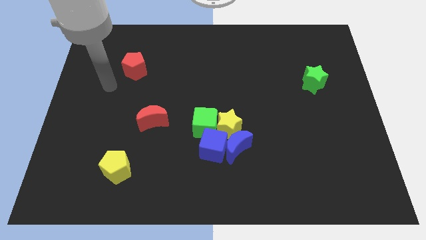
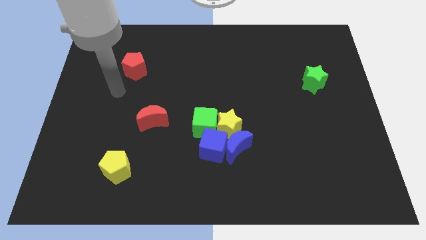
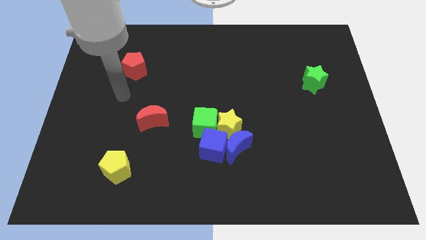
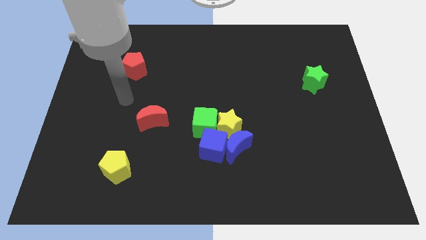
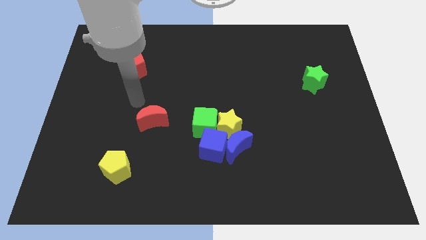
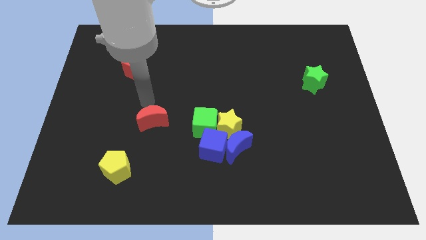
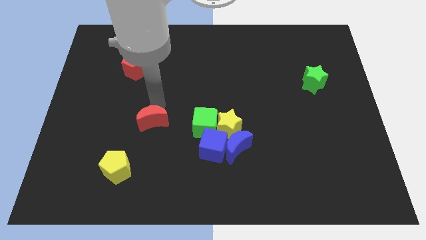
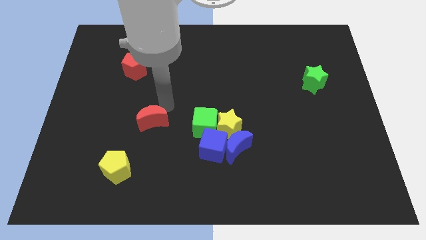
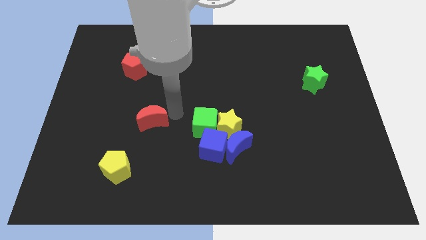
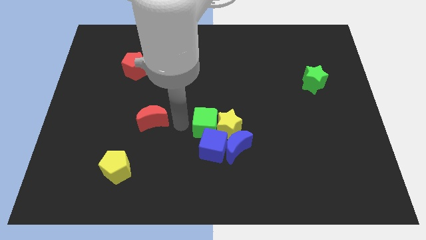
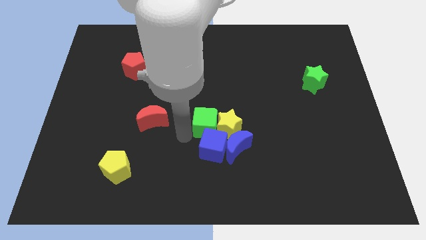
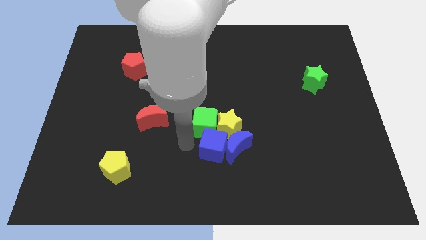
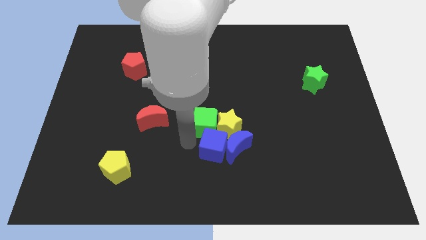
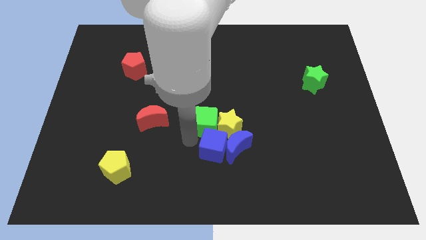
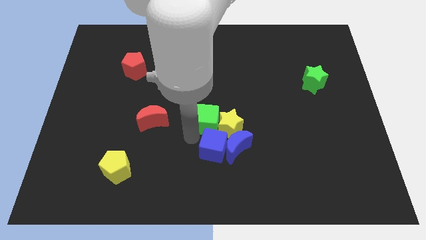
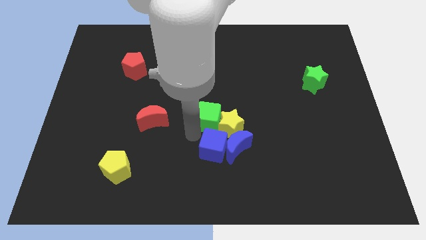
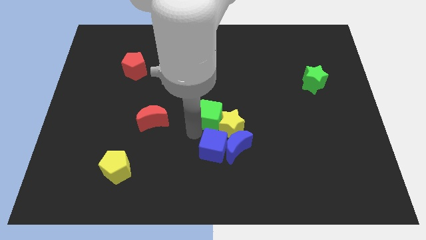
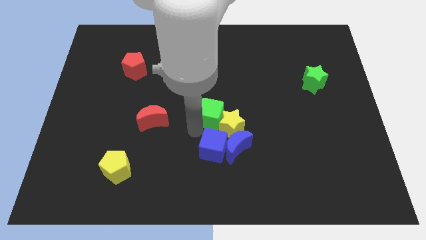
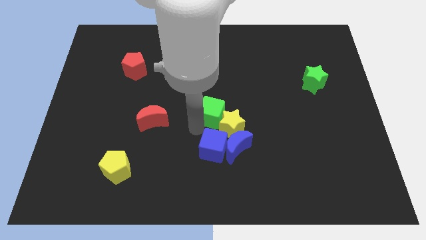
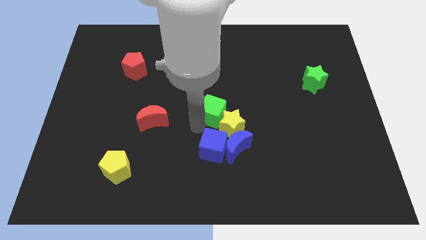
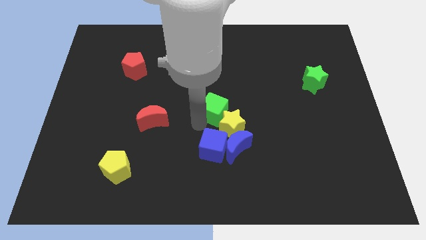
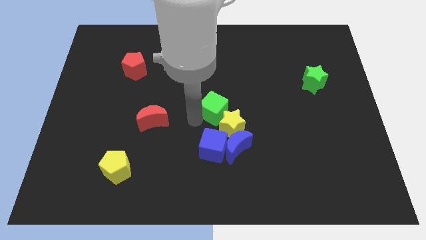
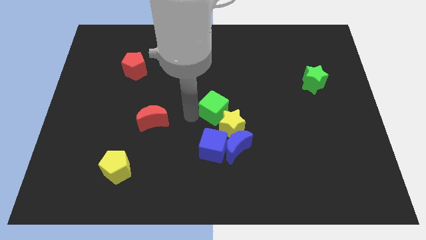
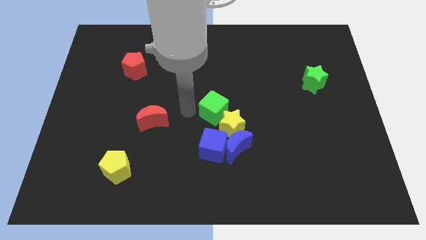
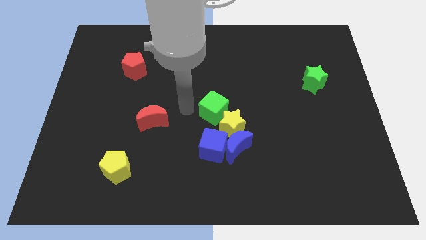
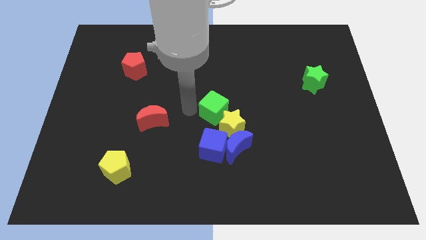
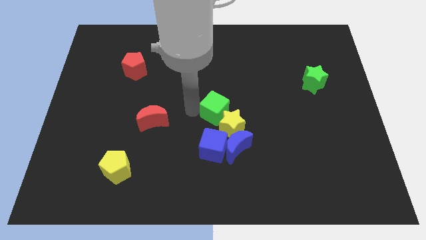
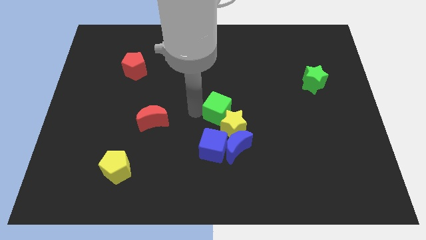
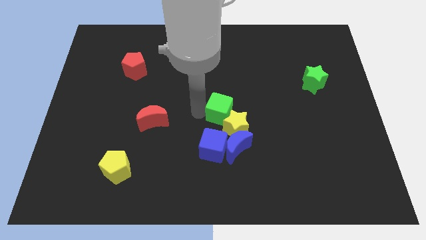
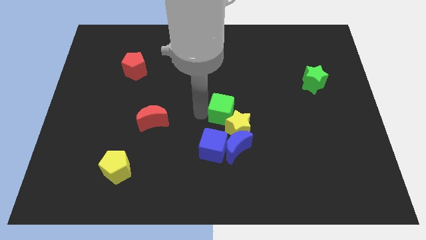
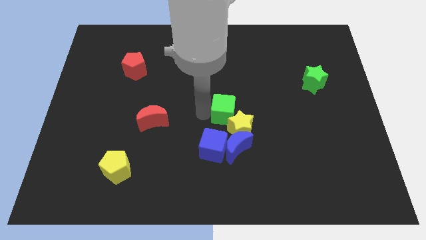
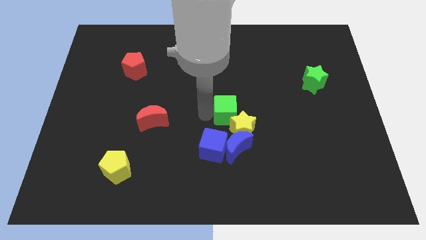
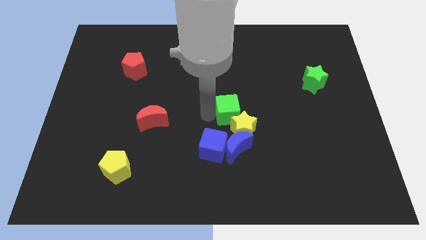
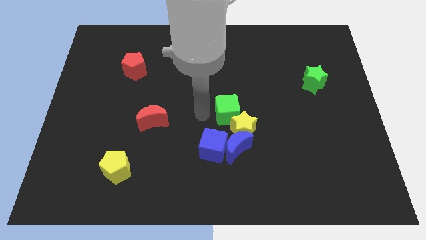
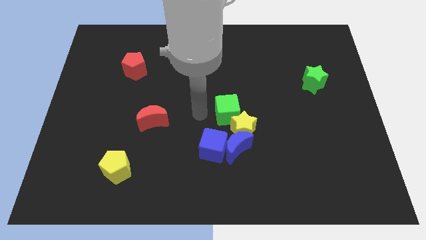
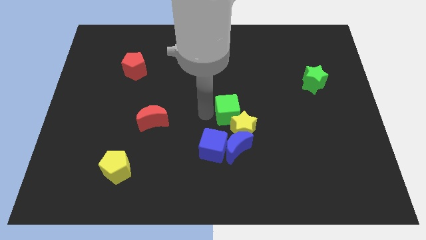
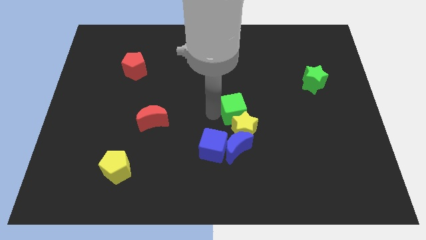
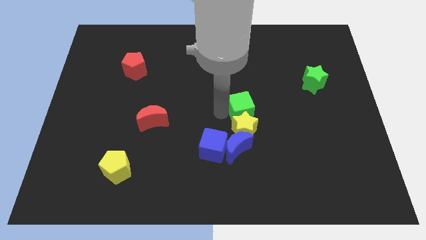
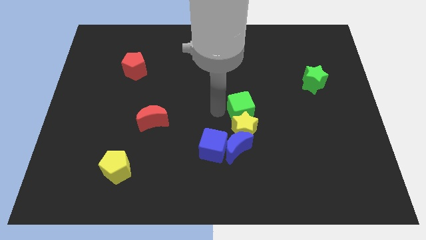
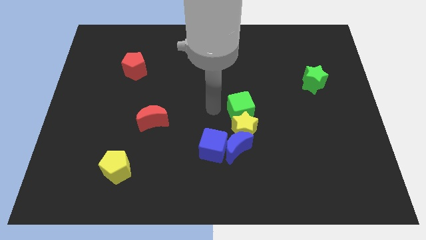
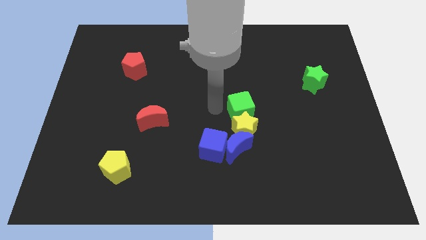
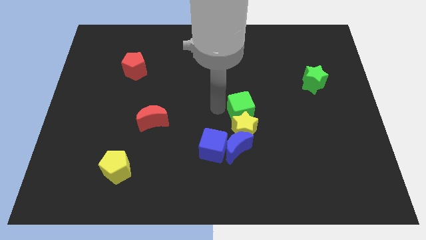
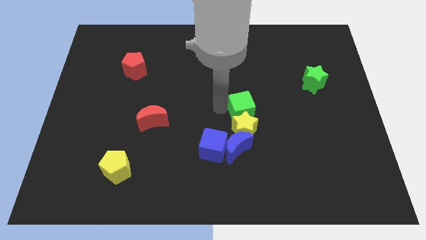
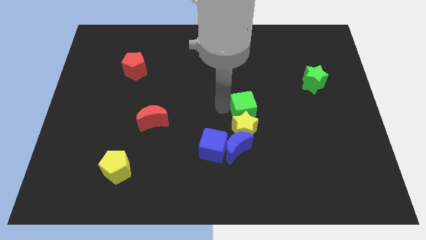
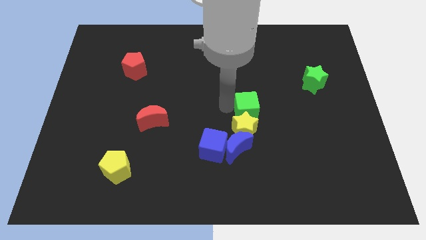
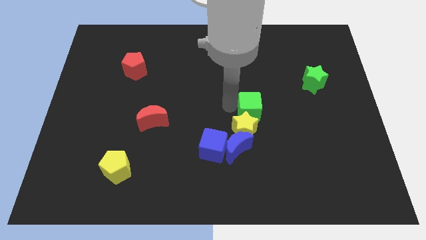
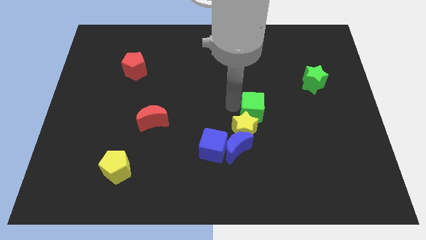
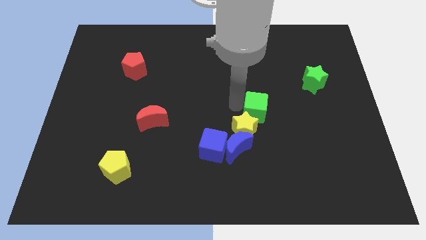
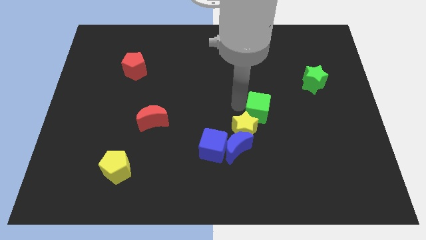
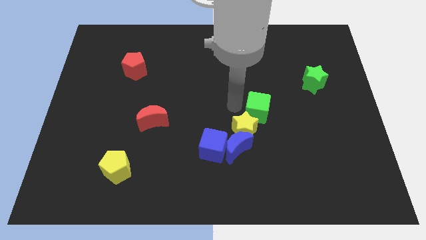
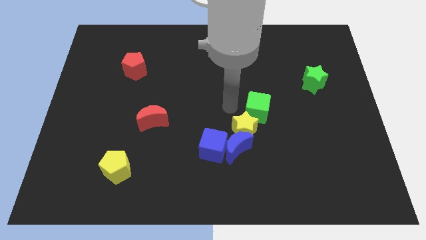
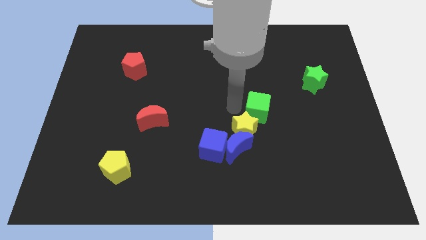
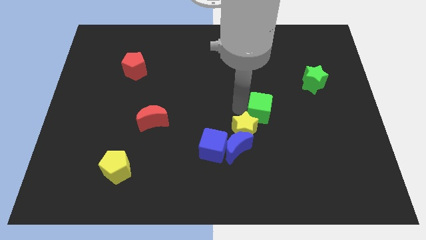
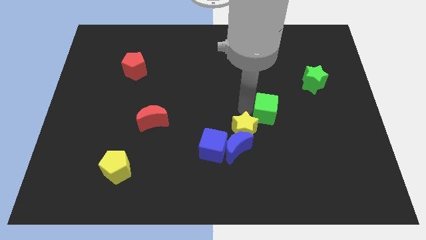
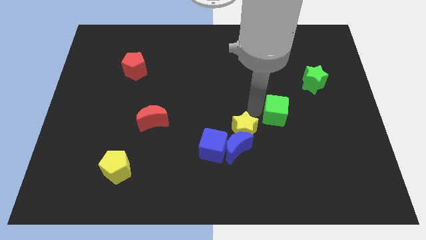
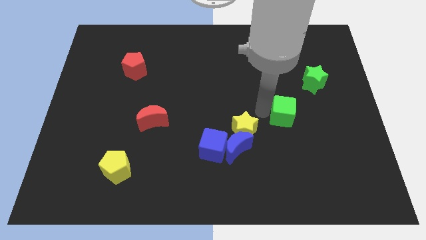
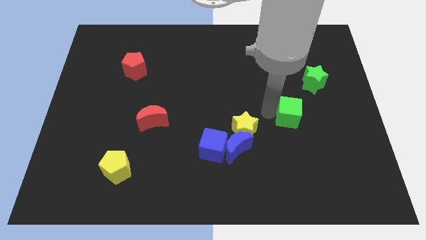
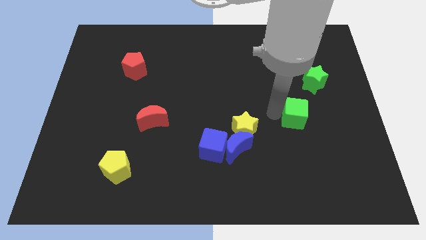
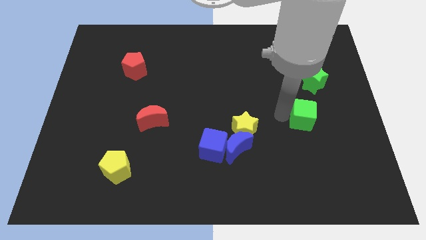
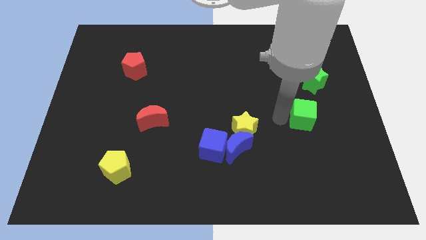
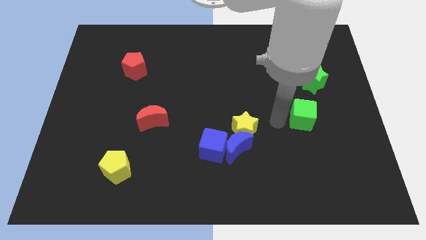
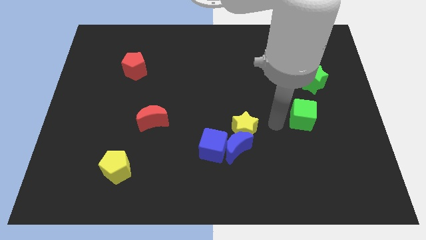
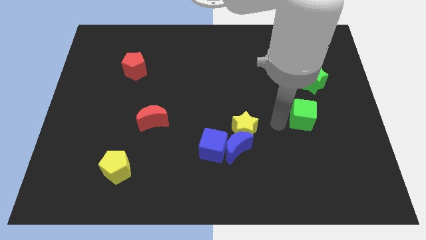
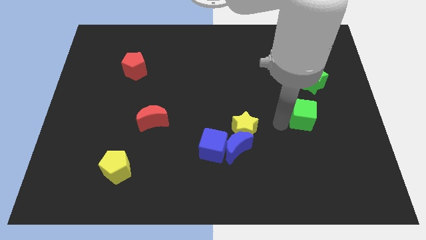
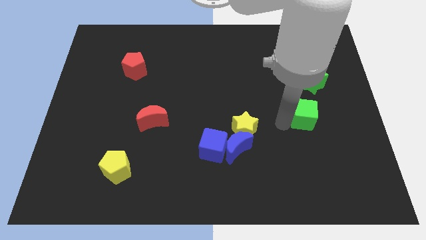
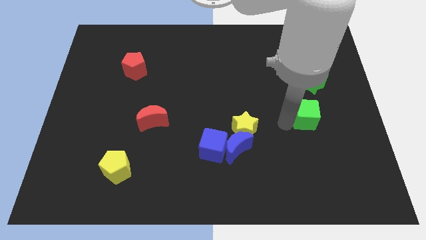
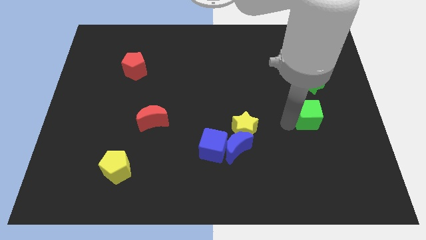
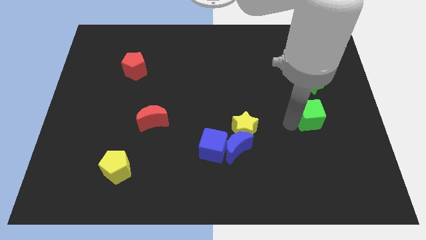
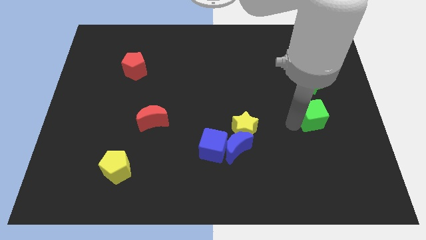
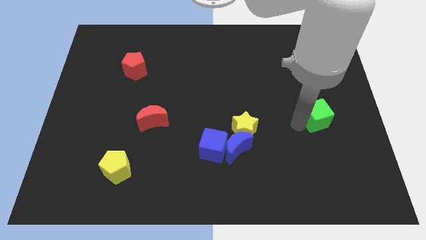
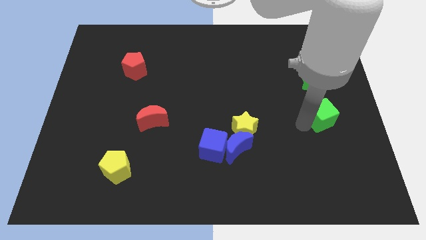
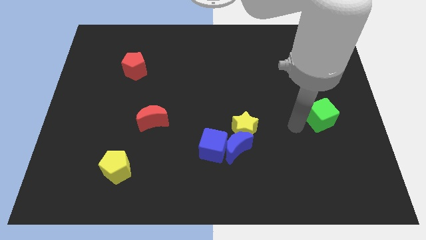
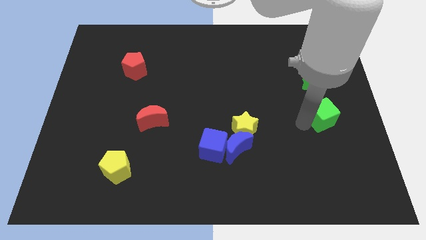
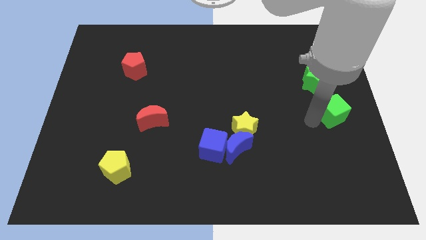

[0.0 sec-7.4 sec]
move the green cube to the right side of the board
